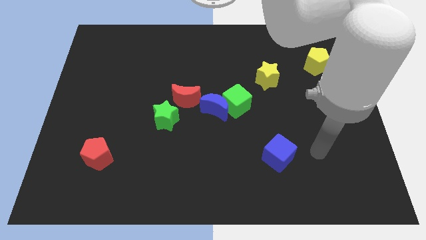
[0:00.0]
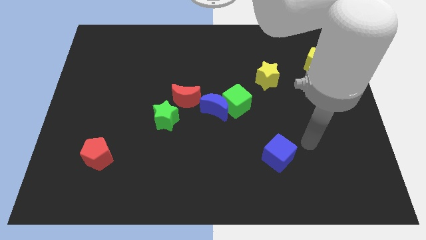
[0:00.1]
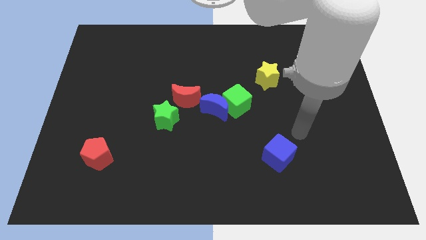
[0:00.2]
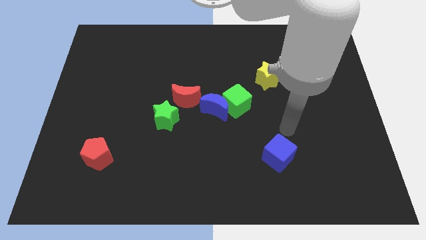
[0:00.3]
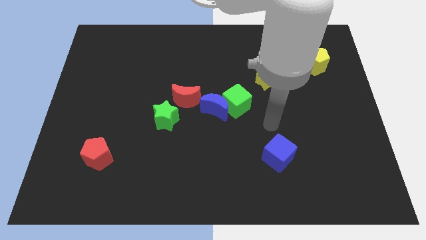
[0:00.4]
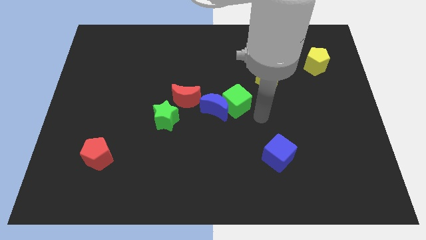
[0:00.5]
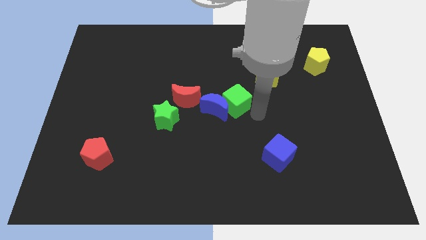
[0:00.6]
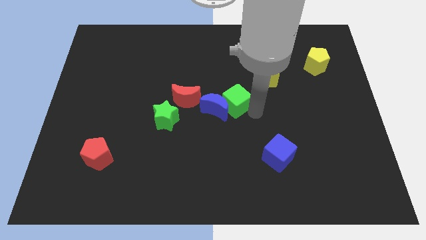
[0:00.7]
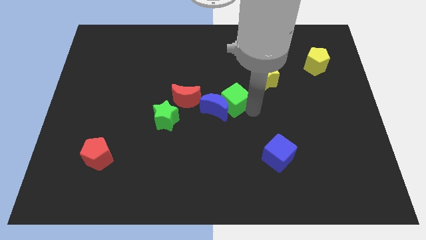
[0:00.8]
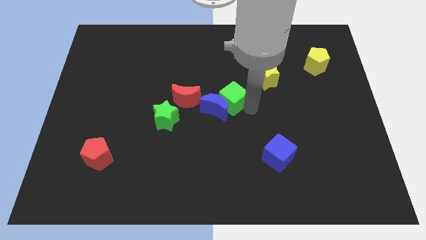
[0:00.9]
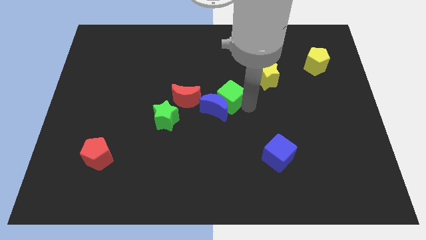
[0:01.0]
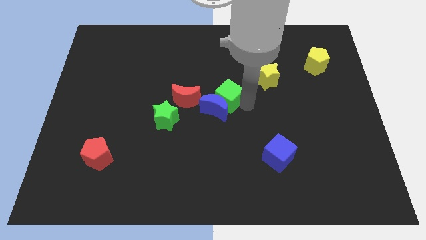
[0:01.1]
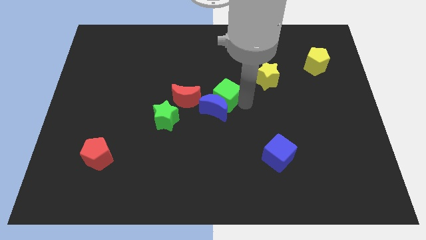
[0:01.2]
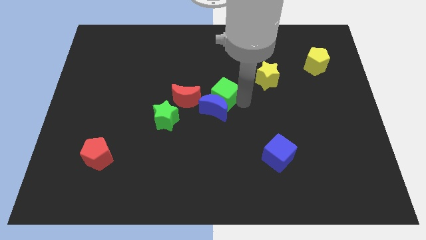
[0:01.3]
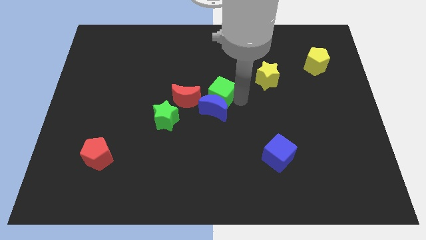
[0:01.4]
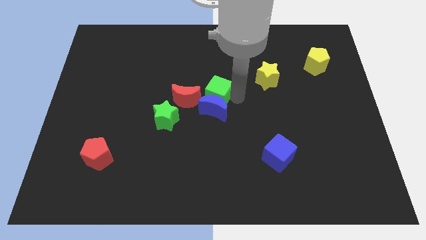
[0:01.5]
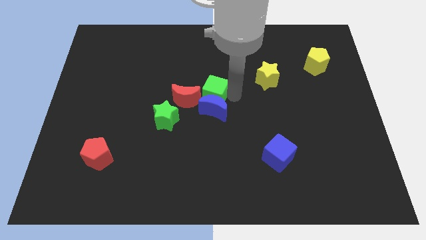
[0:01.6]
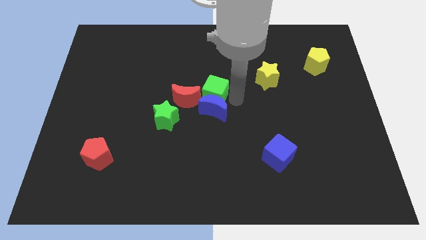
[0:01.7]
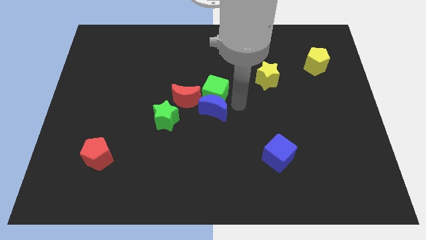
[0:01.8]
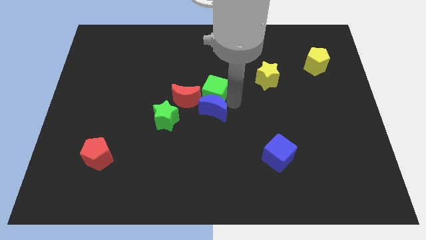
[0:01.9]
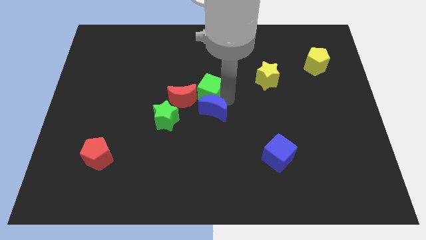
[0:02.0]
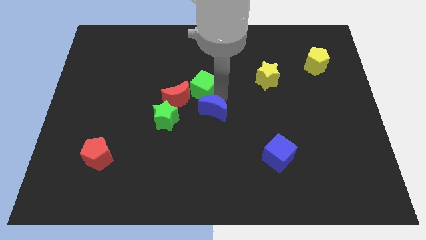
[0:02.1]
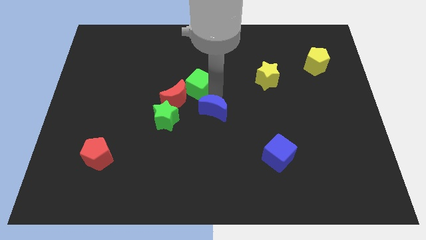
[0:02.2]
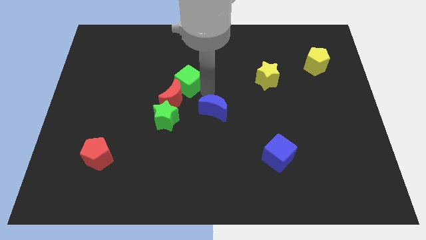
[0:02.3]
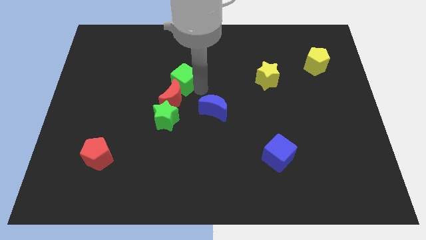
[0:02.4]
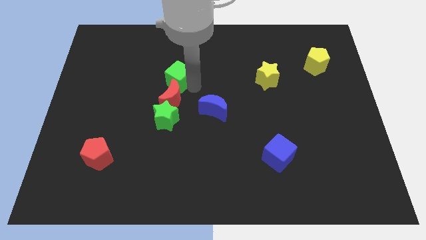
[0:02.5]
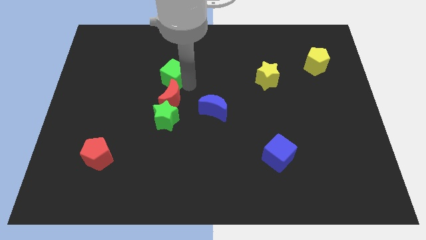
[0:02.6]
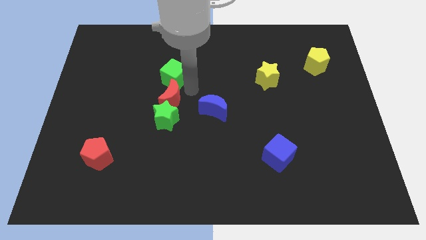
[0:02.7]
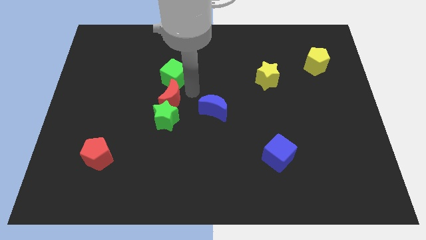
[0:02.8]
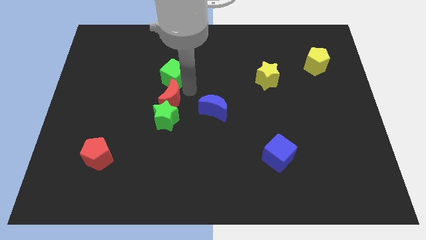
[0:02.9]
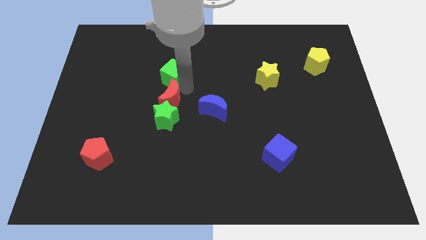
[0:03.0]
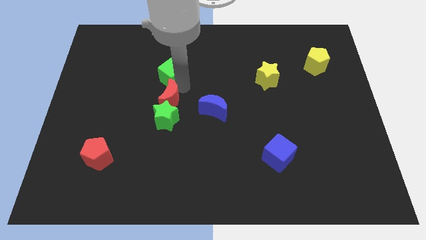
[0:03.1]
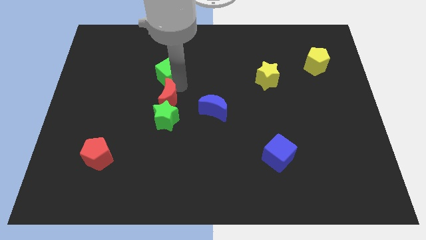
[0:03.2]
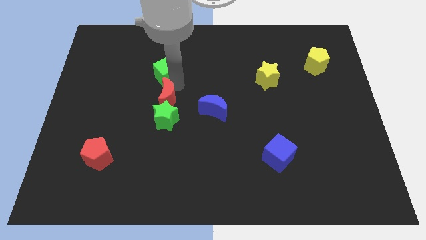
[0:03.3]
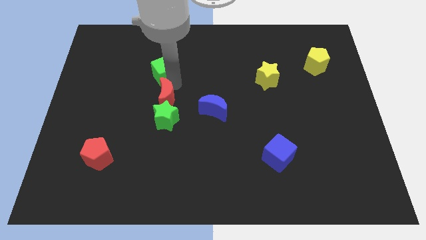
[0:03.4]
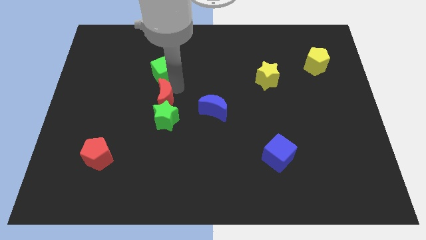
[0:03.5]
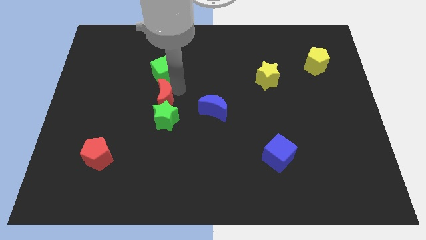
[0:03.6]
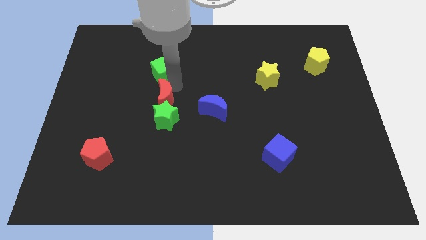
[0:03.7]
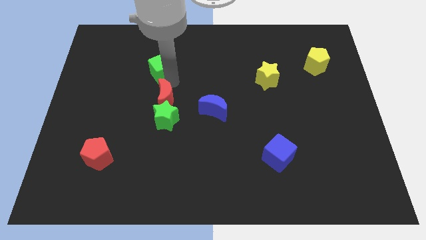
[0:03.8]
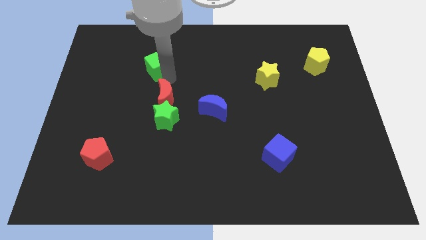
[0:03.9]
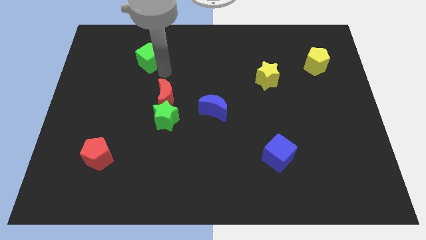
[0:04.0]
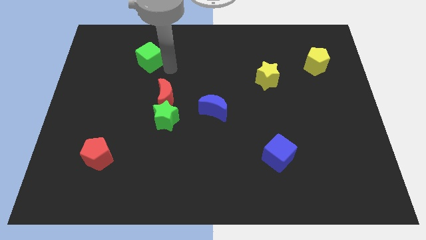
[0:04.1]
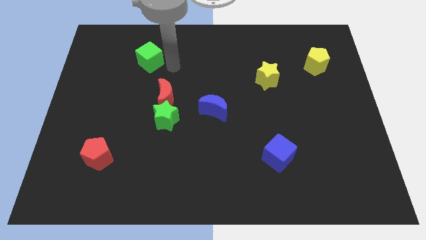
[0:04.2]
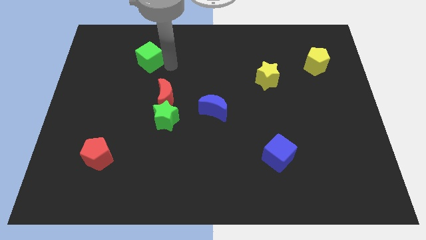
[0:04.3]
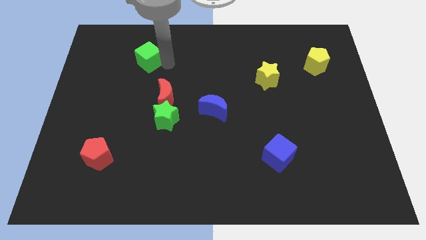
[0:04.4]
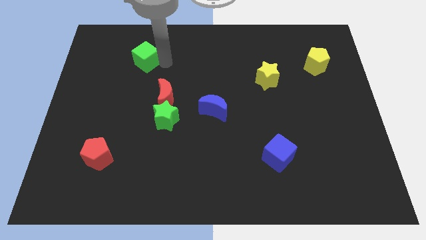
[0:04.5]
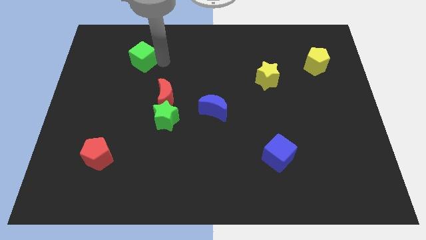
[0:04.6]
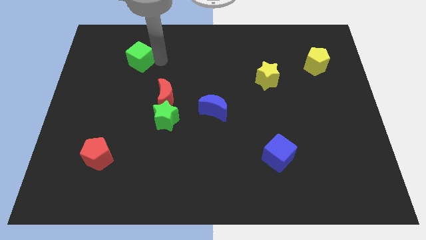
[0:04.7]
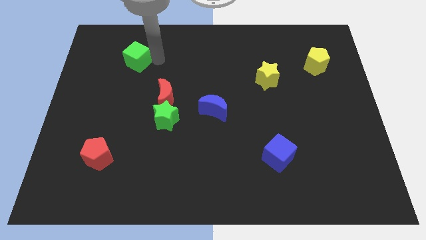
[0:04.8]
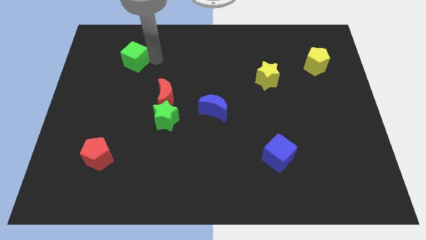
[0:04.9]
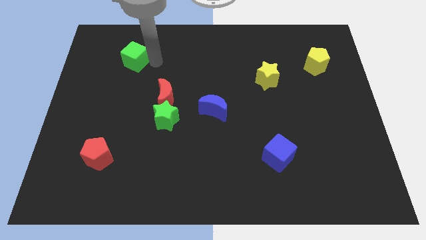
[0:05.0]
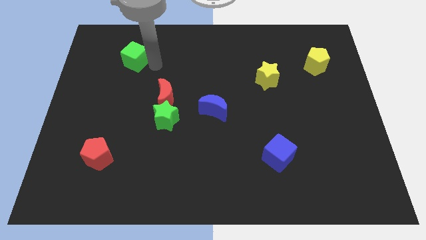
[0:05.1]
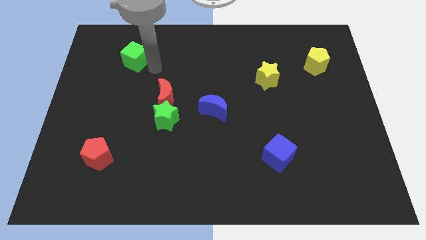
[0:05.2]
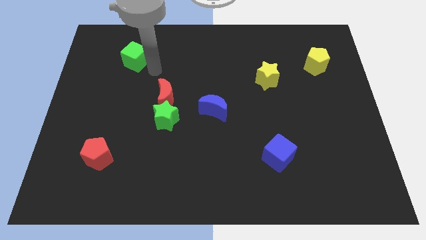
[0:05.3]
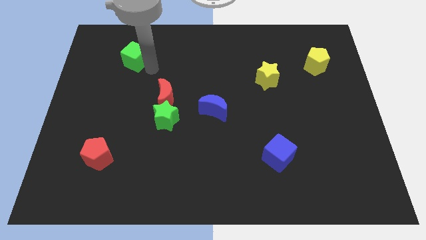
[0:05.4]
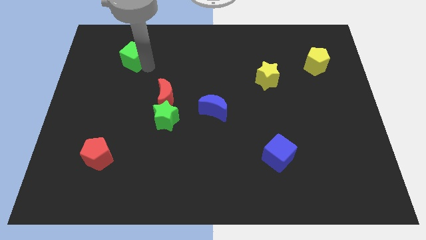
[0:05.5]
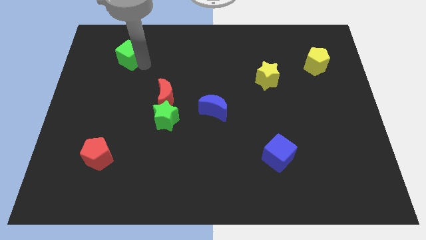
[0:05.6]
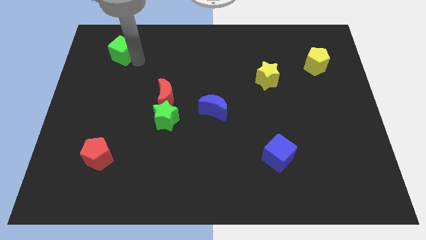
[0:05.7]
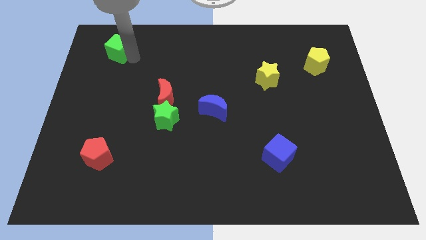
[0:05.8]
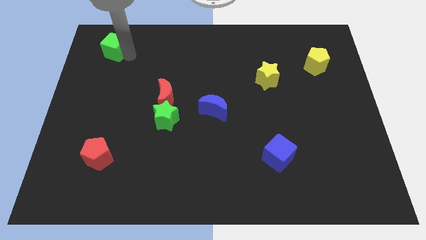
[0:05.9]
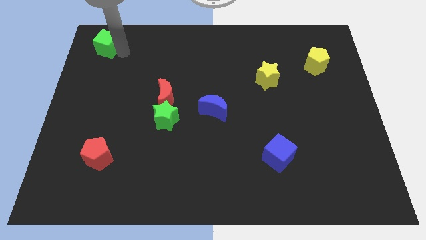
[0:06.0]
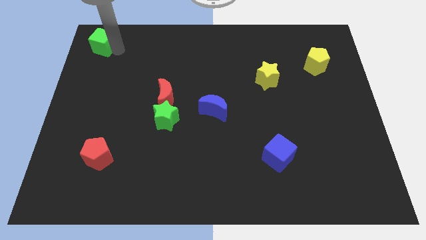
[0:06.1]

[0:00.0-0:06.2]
put the green cube to the top left corner

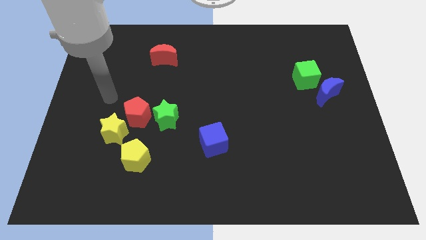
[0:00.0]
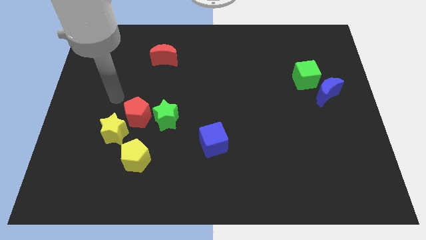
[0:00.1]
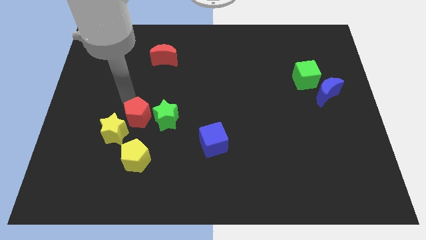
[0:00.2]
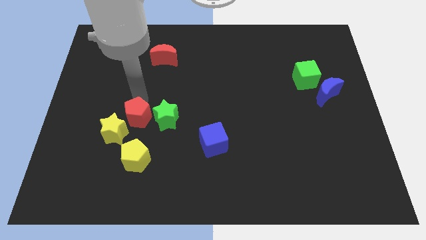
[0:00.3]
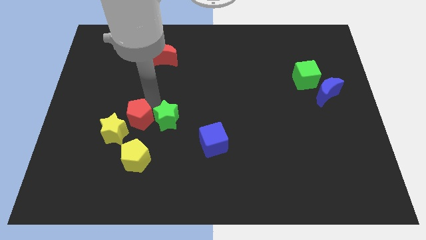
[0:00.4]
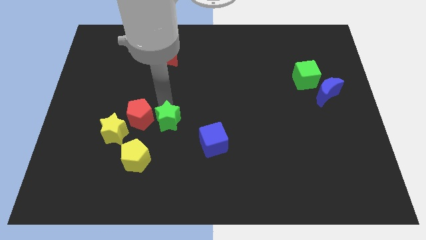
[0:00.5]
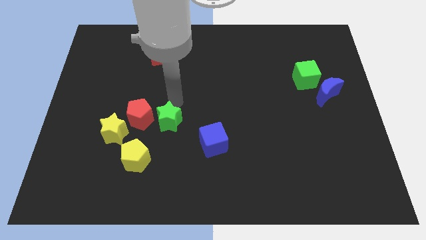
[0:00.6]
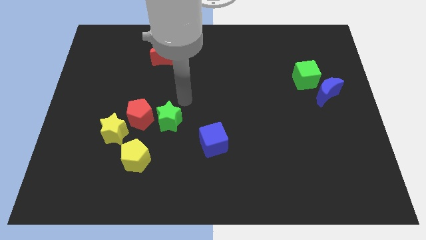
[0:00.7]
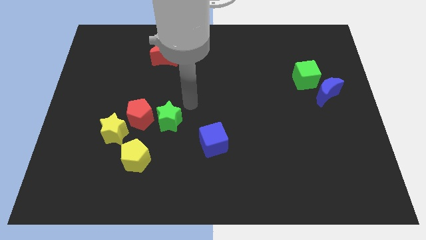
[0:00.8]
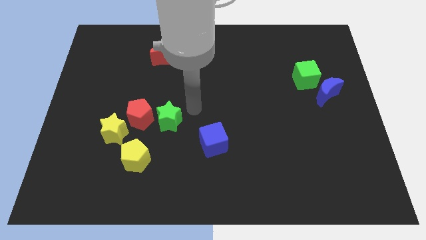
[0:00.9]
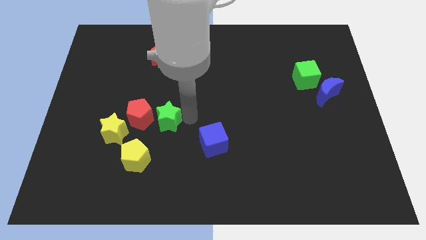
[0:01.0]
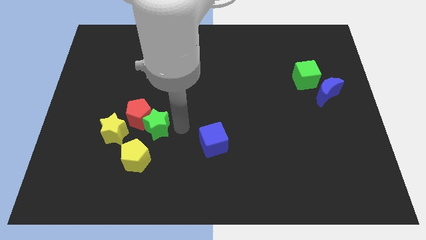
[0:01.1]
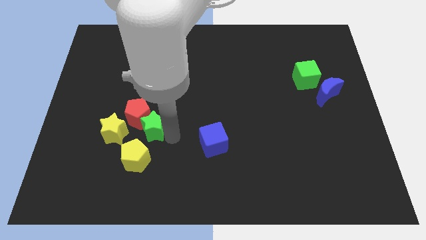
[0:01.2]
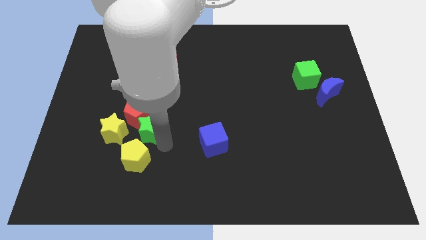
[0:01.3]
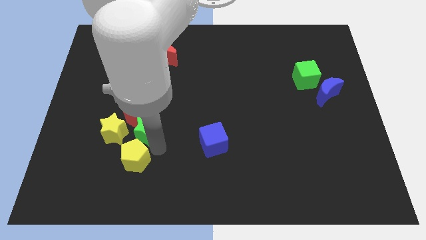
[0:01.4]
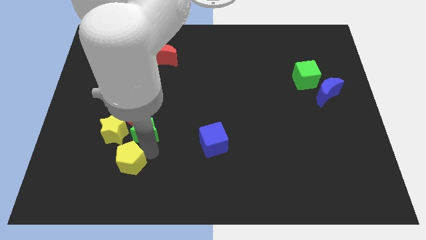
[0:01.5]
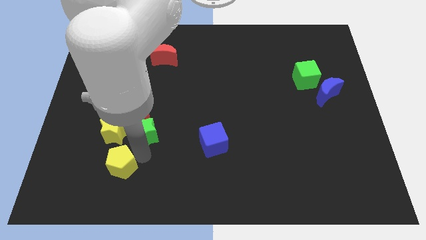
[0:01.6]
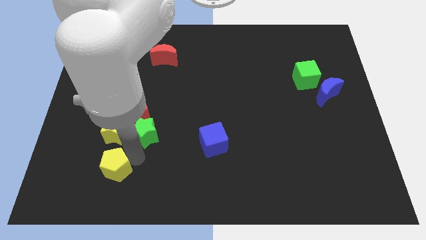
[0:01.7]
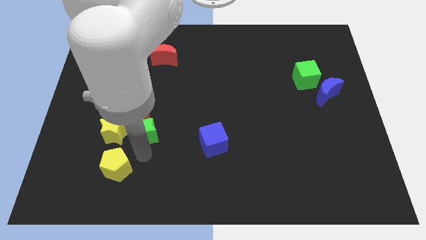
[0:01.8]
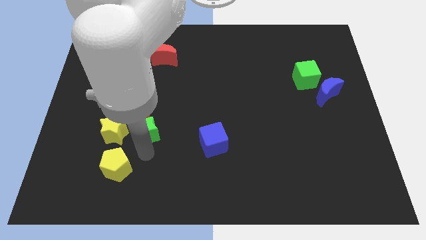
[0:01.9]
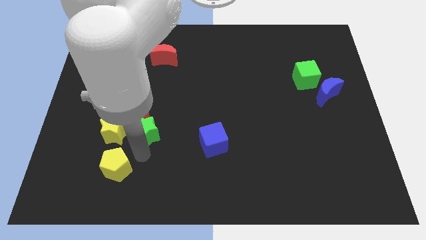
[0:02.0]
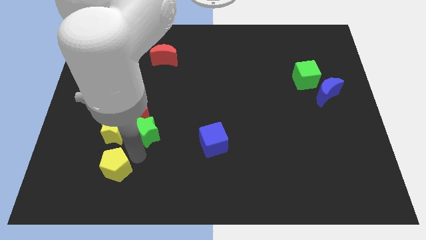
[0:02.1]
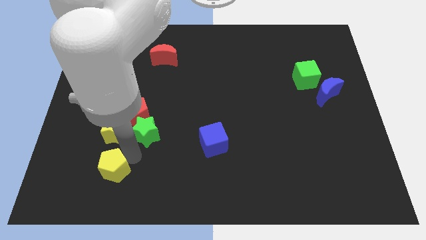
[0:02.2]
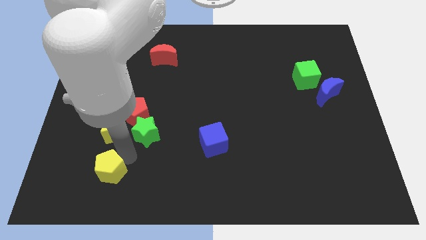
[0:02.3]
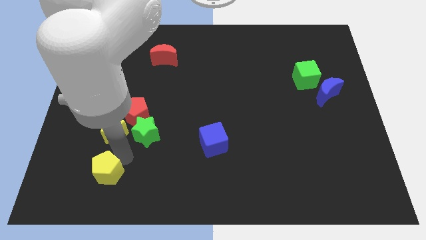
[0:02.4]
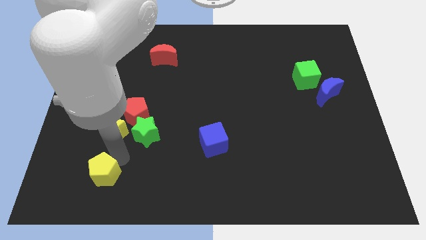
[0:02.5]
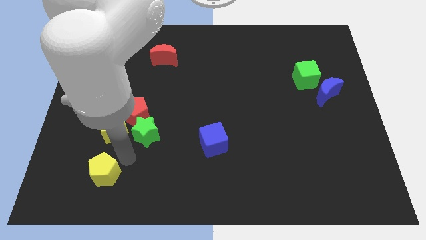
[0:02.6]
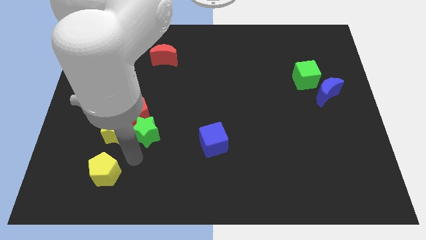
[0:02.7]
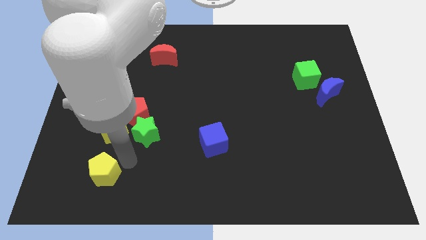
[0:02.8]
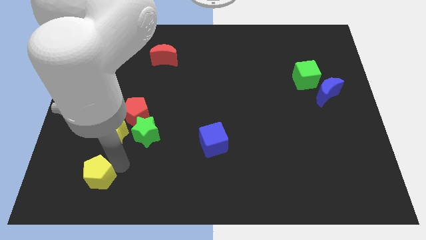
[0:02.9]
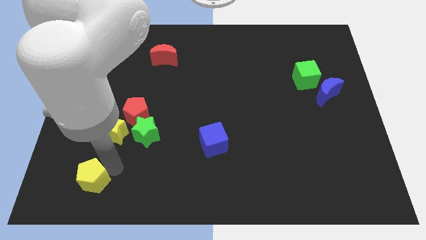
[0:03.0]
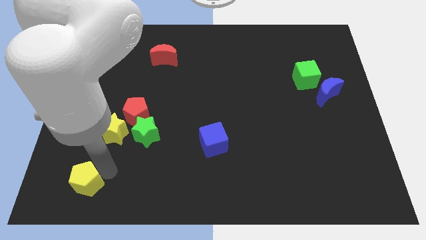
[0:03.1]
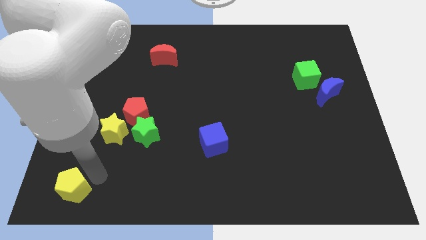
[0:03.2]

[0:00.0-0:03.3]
move the yellow pentagon to the bottom left corner
